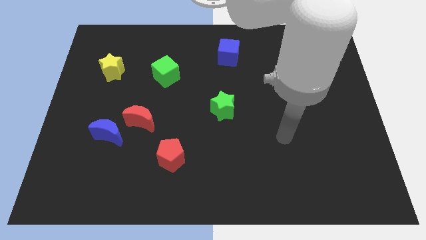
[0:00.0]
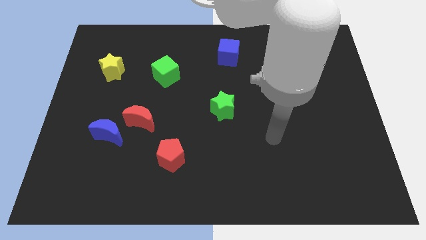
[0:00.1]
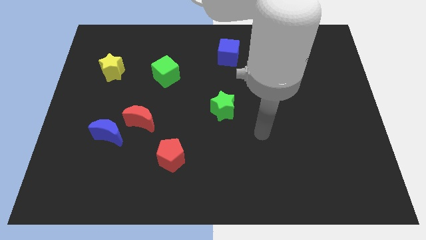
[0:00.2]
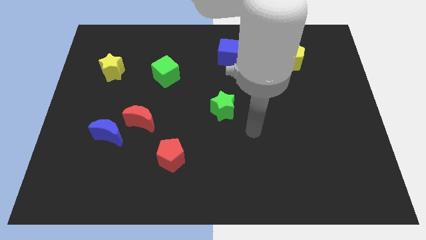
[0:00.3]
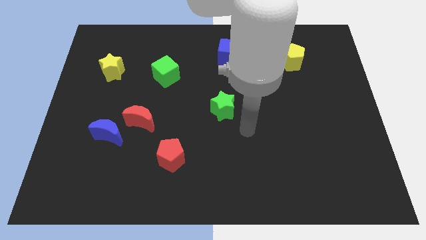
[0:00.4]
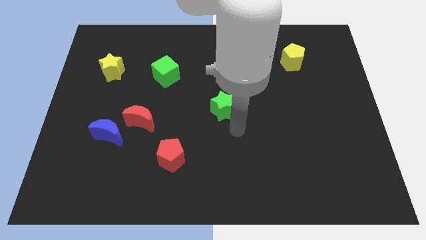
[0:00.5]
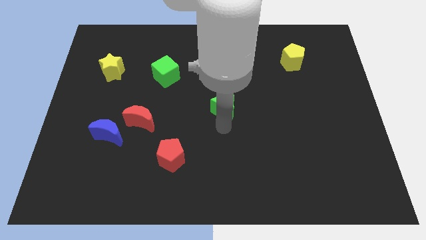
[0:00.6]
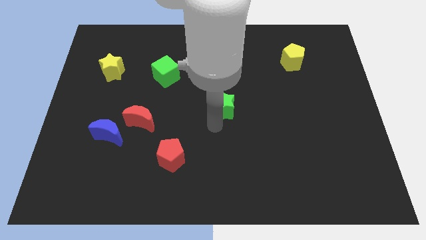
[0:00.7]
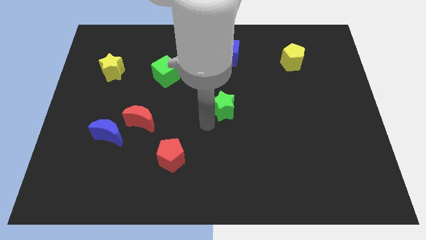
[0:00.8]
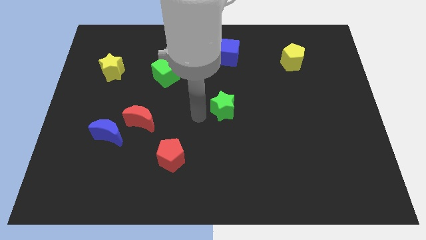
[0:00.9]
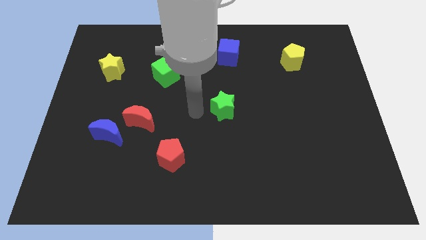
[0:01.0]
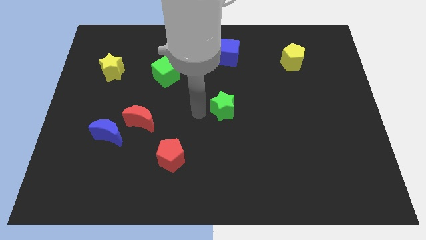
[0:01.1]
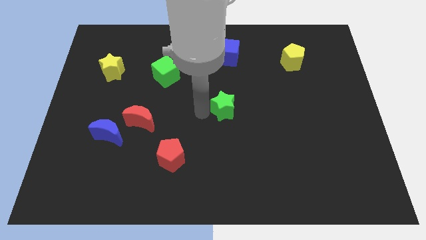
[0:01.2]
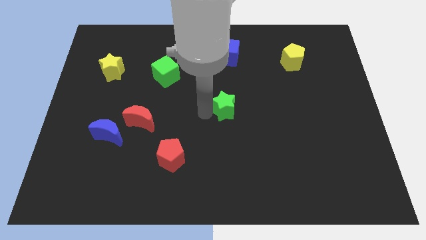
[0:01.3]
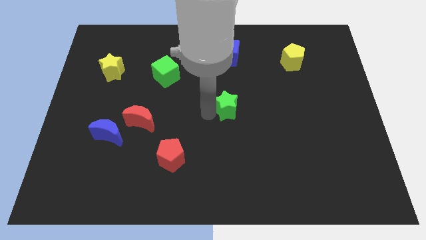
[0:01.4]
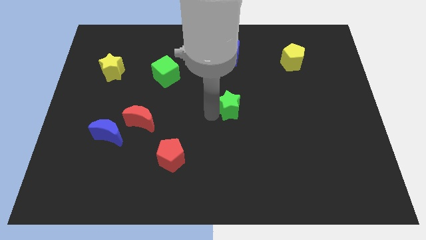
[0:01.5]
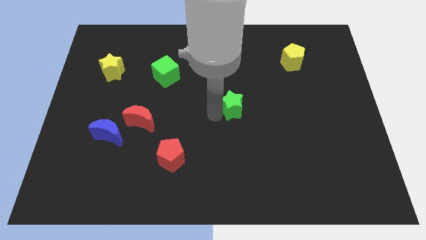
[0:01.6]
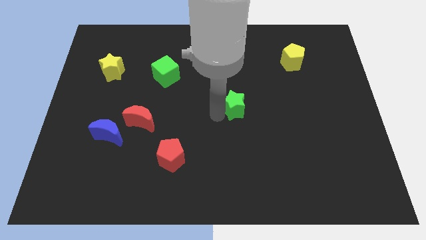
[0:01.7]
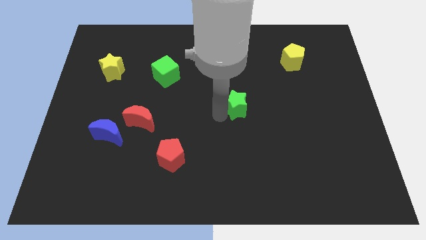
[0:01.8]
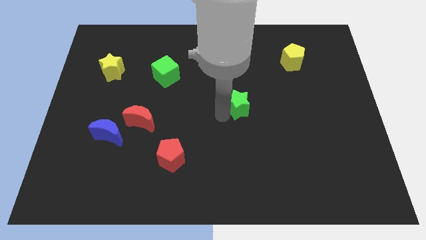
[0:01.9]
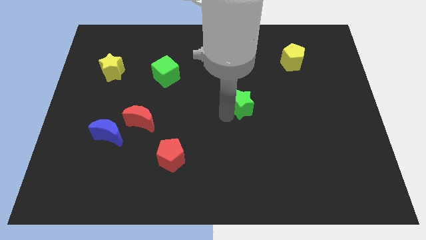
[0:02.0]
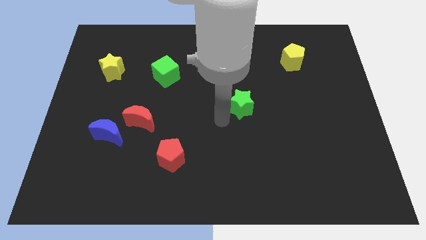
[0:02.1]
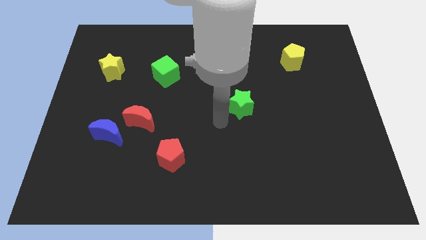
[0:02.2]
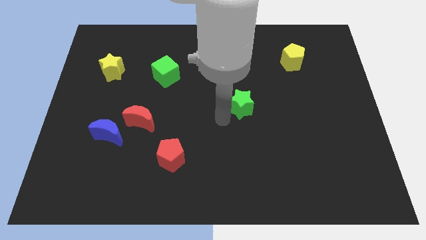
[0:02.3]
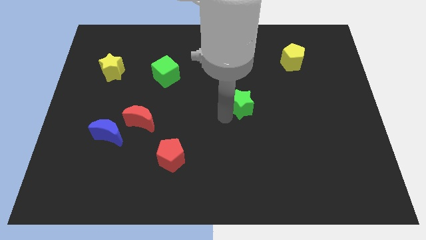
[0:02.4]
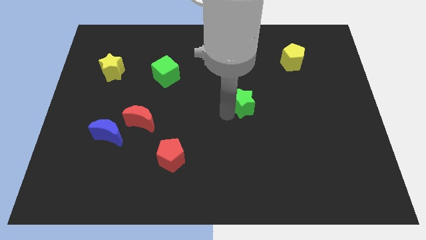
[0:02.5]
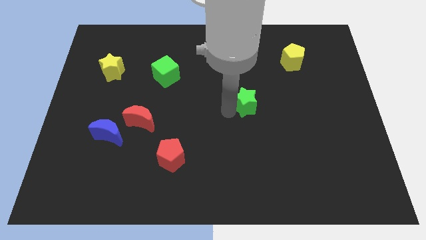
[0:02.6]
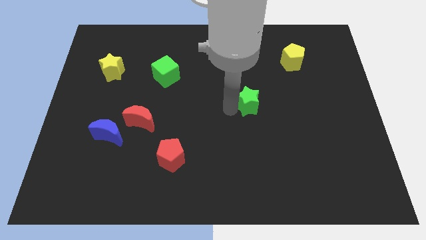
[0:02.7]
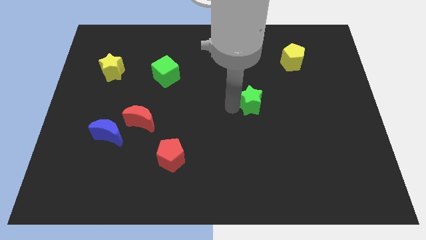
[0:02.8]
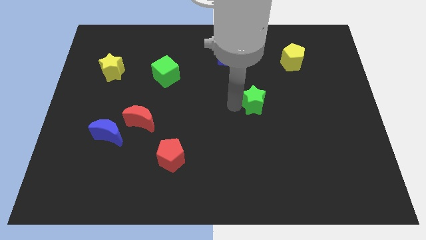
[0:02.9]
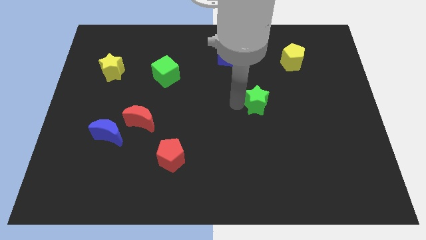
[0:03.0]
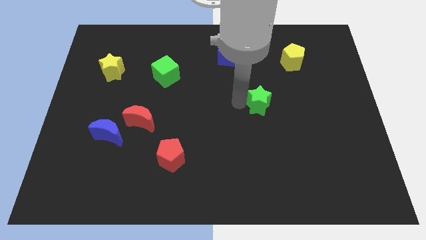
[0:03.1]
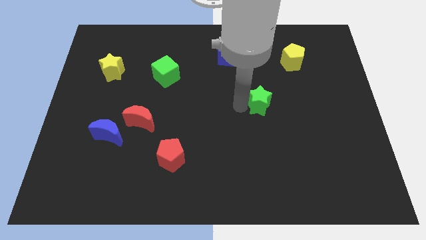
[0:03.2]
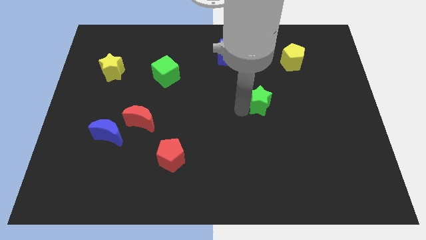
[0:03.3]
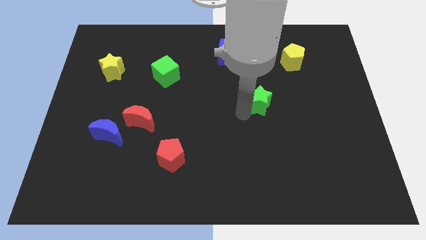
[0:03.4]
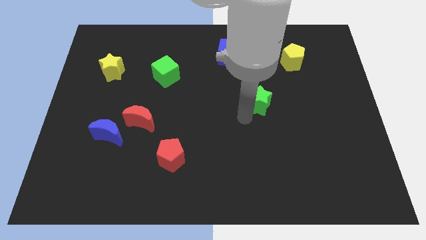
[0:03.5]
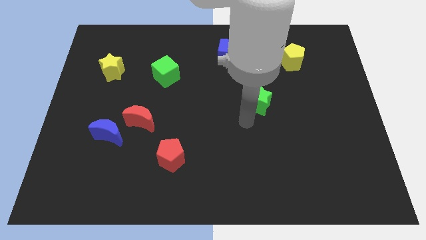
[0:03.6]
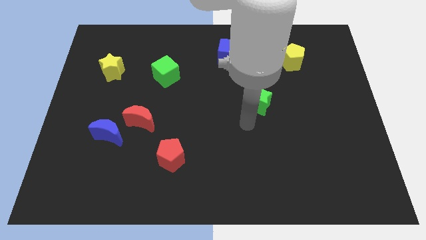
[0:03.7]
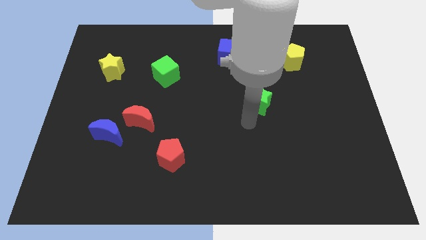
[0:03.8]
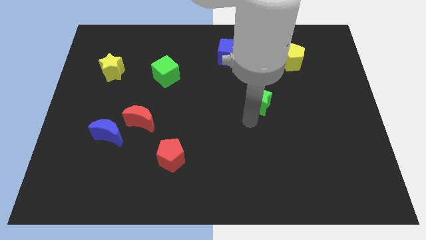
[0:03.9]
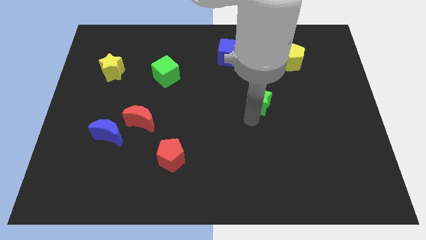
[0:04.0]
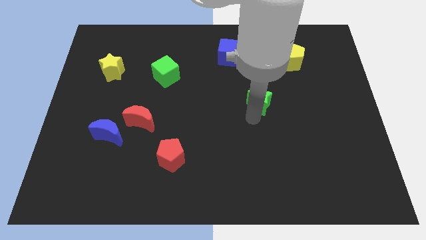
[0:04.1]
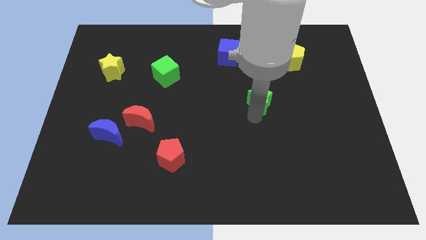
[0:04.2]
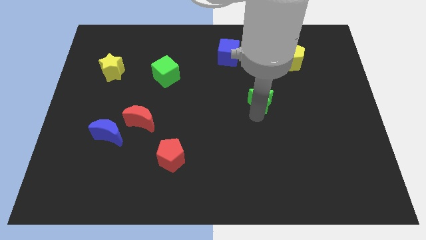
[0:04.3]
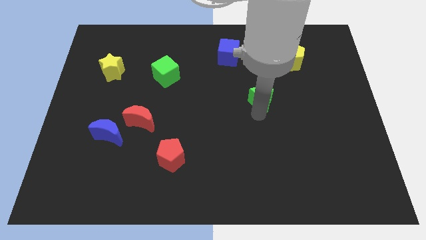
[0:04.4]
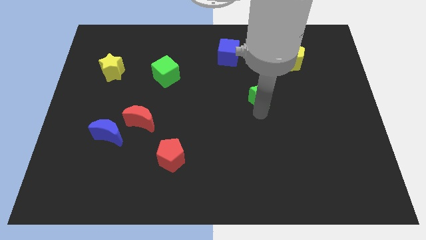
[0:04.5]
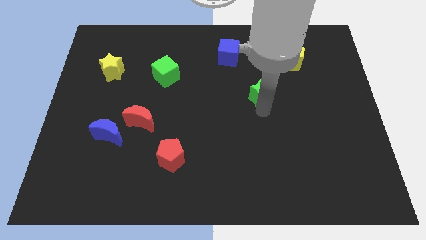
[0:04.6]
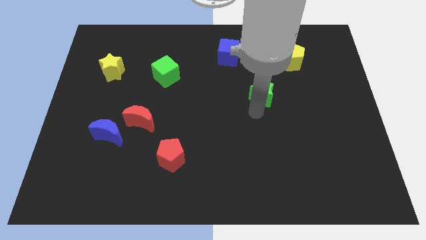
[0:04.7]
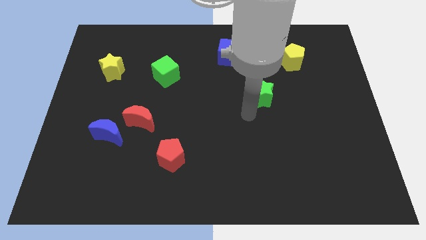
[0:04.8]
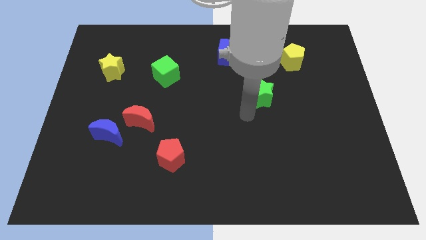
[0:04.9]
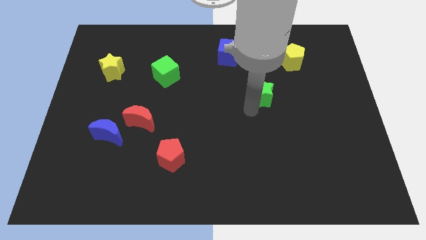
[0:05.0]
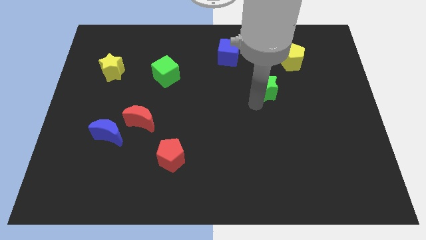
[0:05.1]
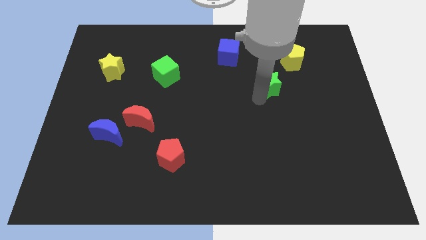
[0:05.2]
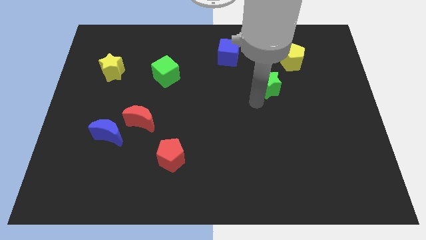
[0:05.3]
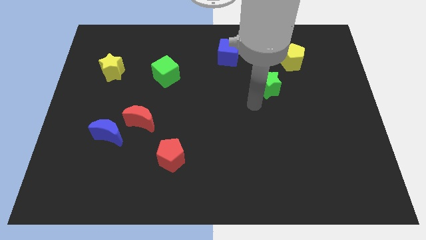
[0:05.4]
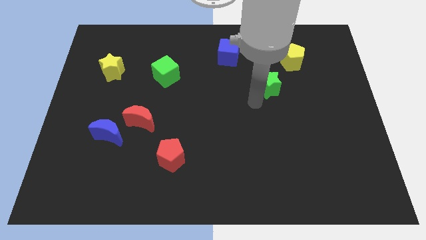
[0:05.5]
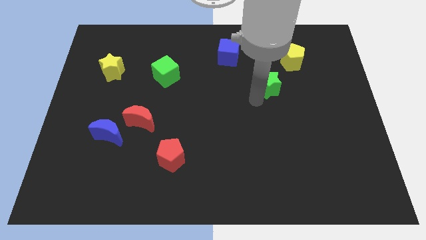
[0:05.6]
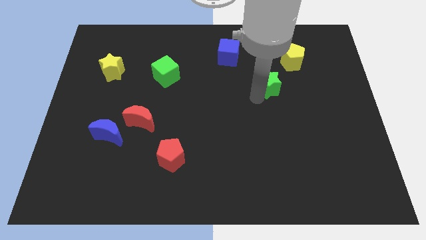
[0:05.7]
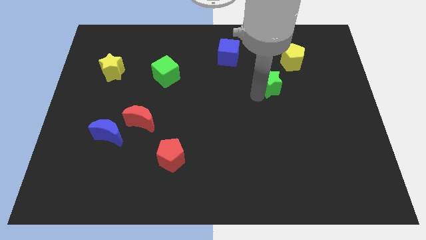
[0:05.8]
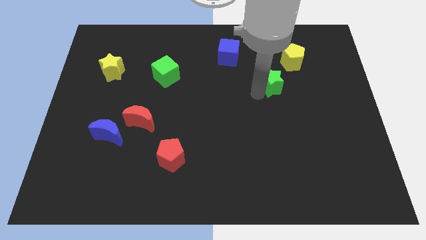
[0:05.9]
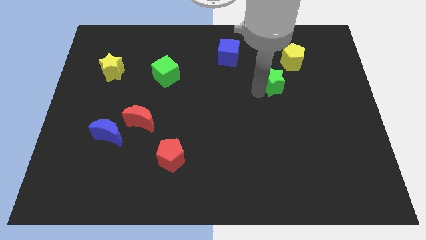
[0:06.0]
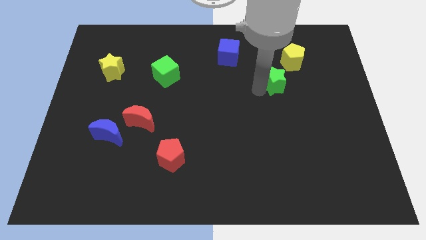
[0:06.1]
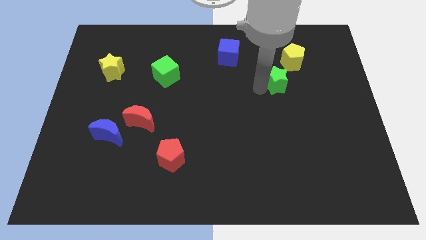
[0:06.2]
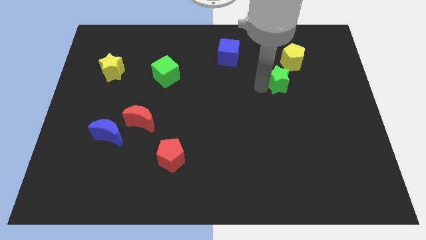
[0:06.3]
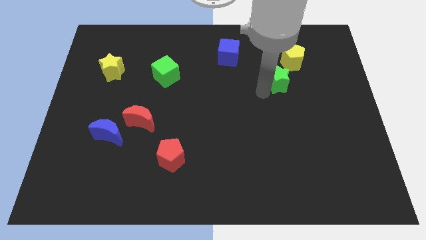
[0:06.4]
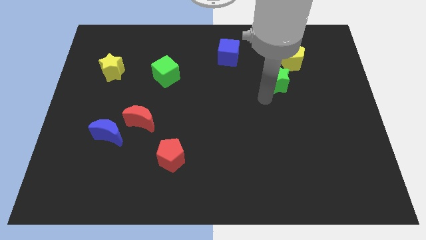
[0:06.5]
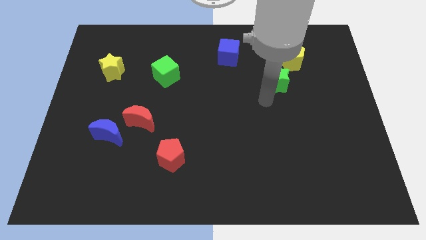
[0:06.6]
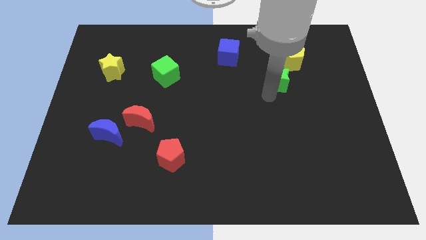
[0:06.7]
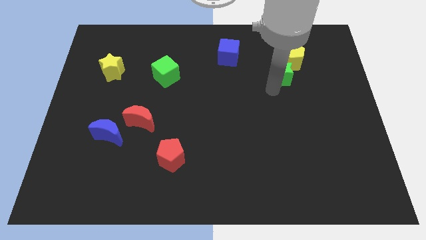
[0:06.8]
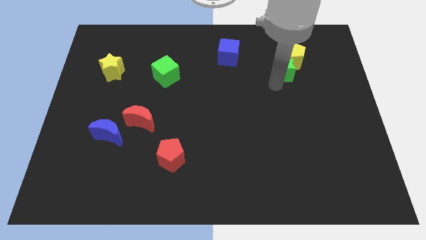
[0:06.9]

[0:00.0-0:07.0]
move the green star close to the yellow pentagon
